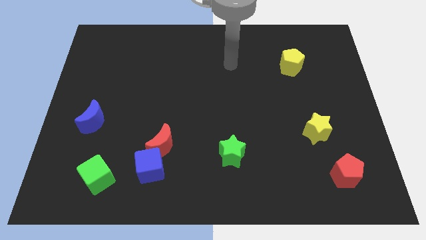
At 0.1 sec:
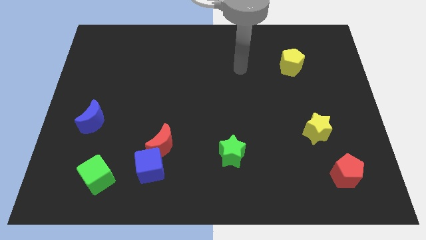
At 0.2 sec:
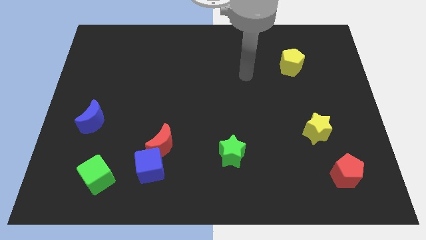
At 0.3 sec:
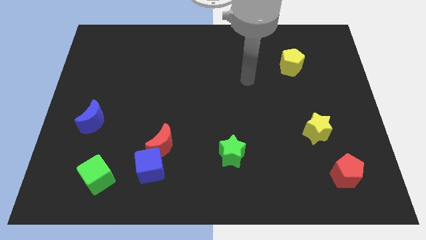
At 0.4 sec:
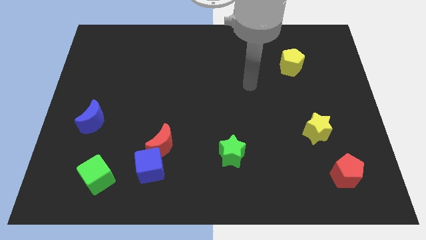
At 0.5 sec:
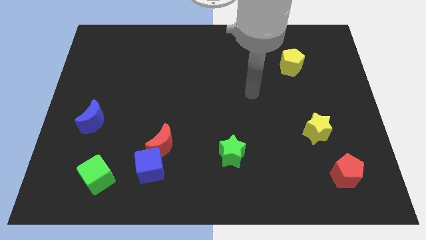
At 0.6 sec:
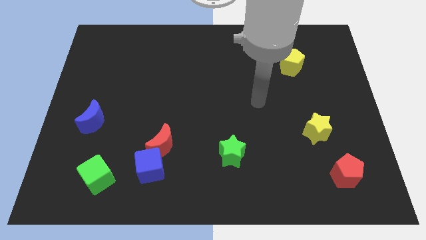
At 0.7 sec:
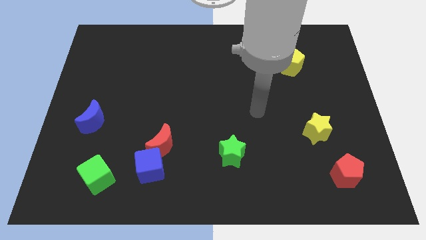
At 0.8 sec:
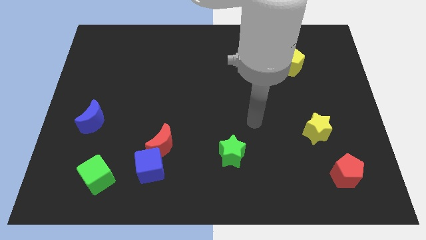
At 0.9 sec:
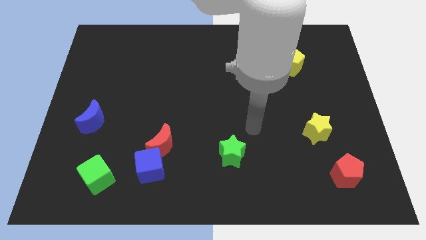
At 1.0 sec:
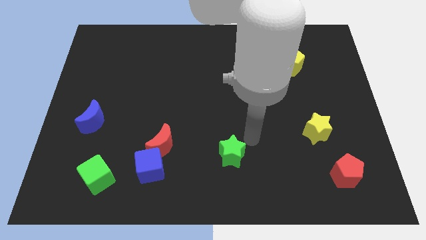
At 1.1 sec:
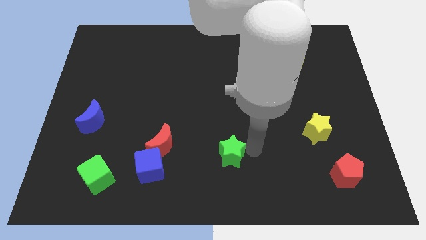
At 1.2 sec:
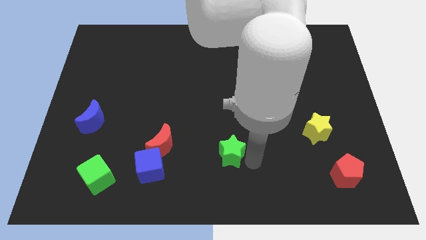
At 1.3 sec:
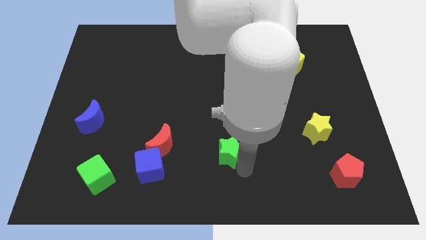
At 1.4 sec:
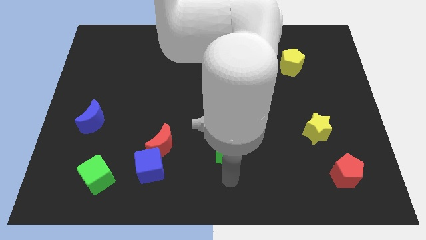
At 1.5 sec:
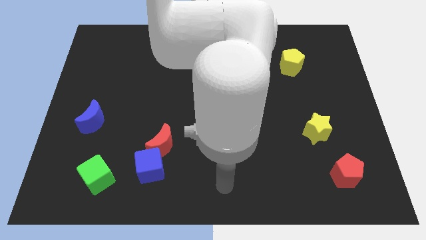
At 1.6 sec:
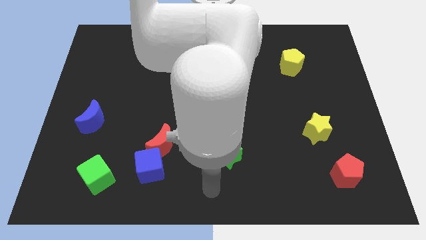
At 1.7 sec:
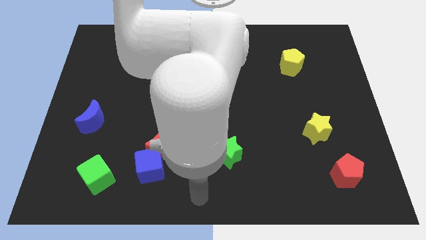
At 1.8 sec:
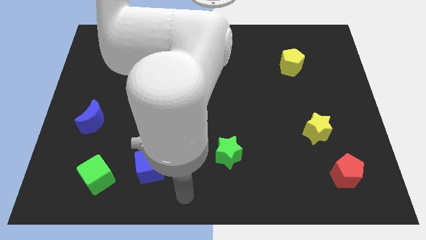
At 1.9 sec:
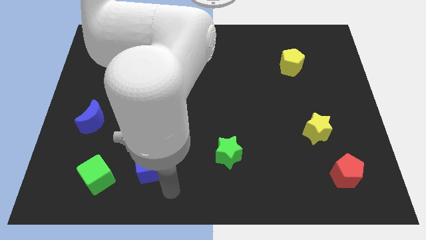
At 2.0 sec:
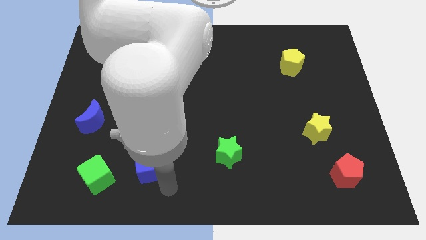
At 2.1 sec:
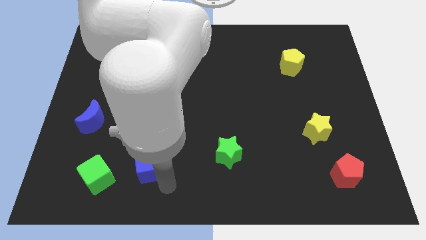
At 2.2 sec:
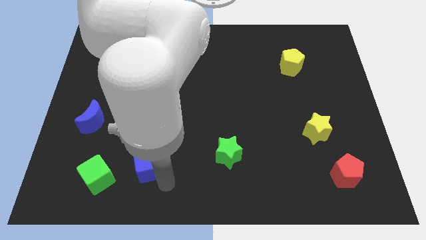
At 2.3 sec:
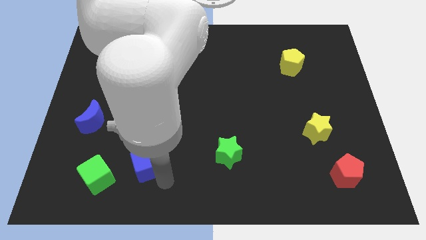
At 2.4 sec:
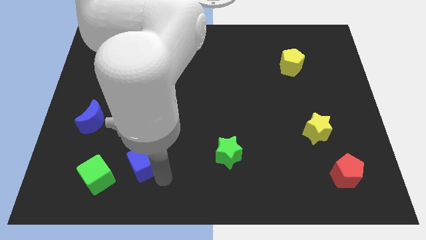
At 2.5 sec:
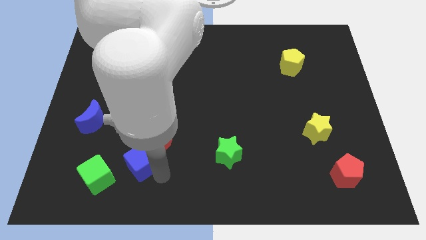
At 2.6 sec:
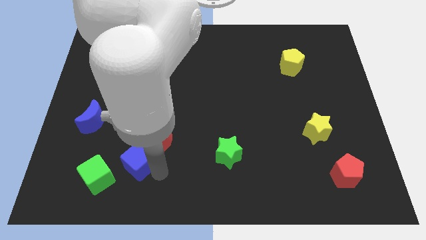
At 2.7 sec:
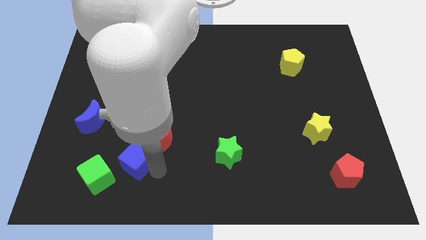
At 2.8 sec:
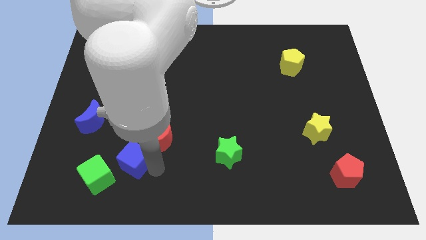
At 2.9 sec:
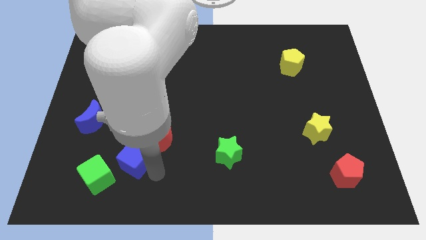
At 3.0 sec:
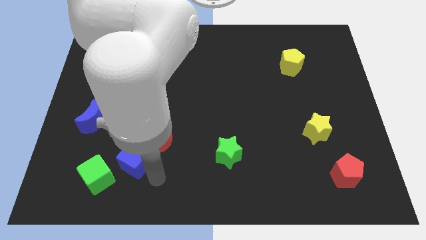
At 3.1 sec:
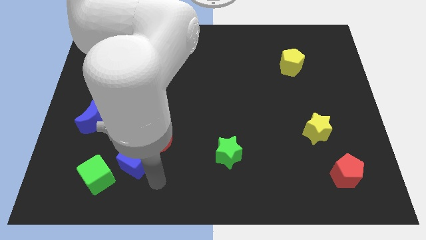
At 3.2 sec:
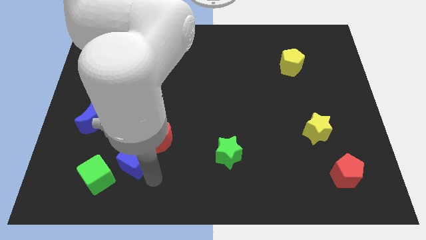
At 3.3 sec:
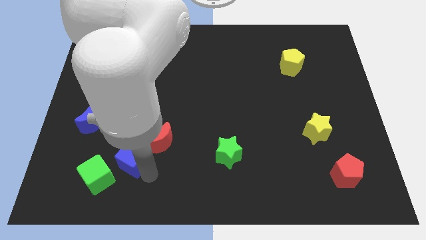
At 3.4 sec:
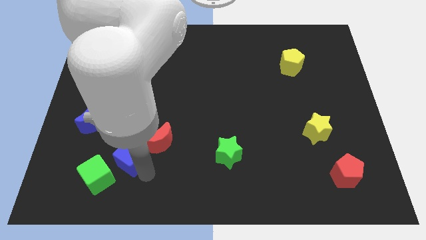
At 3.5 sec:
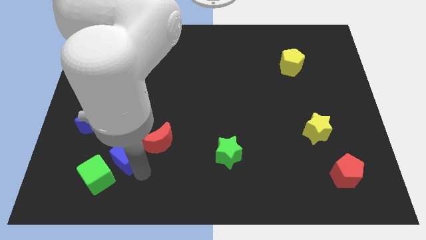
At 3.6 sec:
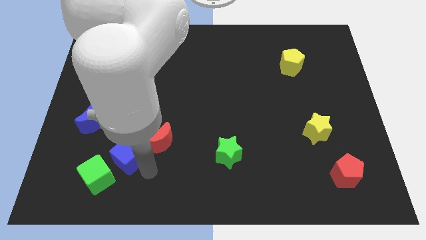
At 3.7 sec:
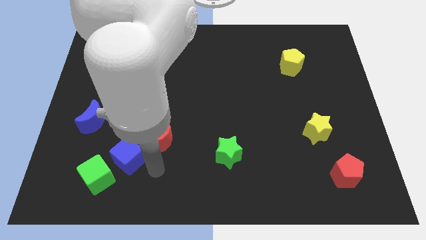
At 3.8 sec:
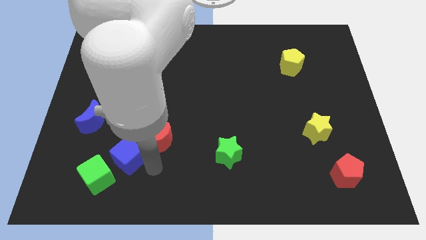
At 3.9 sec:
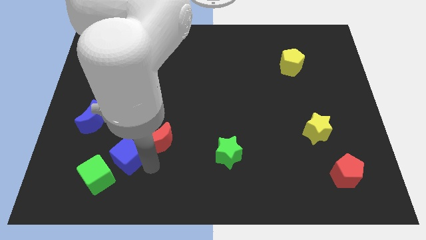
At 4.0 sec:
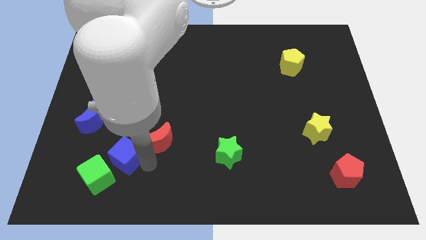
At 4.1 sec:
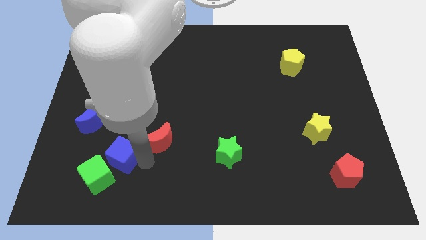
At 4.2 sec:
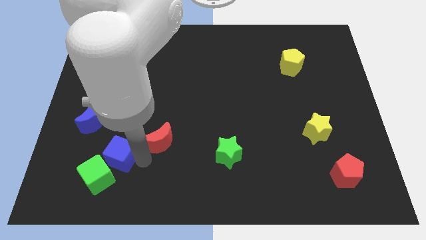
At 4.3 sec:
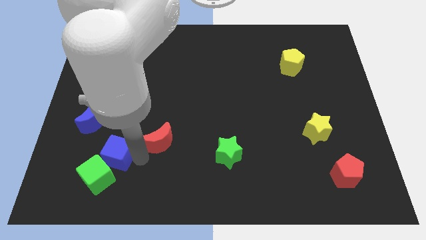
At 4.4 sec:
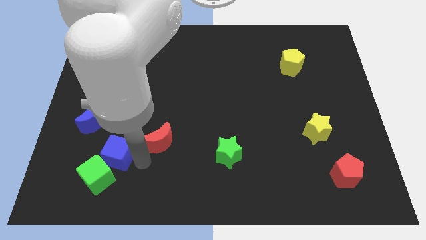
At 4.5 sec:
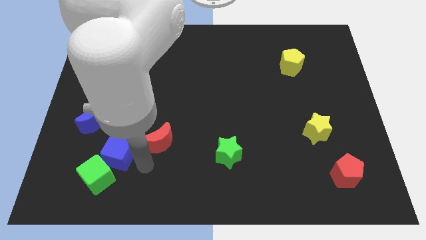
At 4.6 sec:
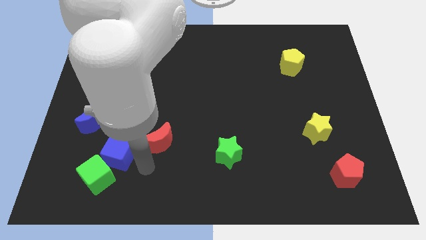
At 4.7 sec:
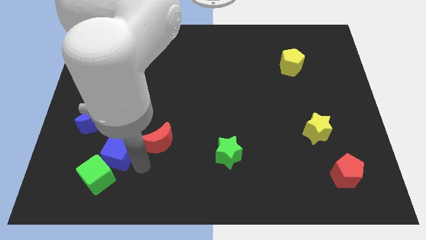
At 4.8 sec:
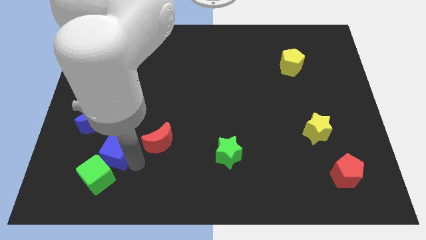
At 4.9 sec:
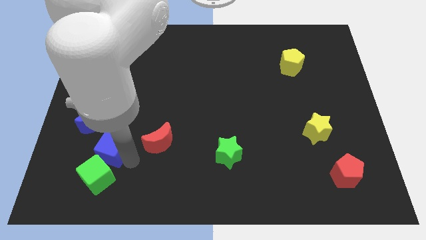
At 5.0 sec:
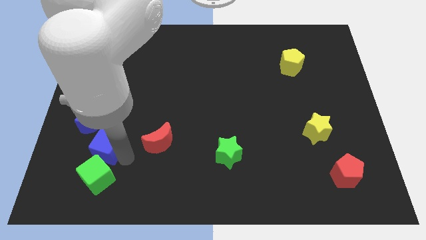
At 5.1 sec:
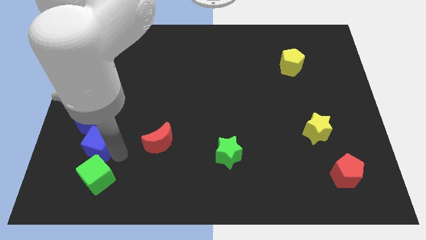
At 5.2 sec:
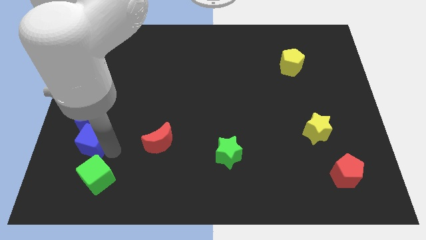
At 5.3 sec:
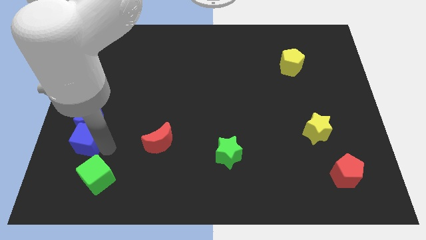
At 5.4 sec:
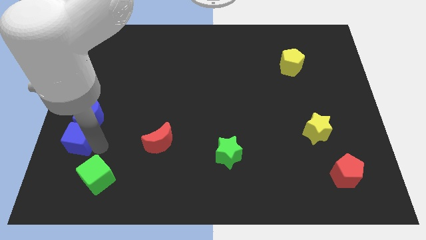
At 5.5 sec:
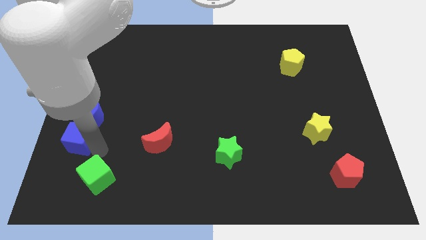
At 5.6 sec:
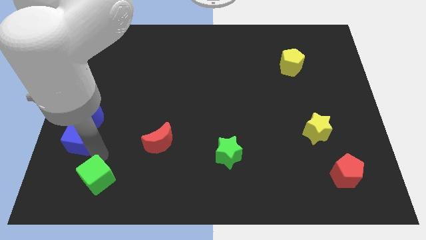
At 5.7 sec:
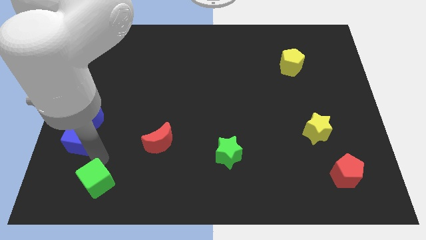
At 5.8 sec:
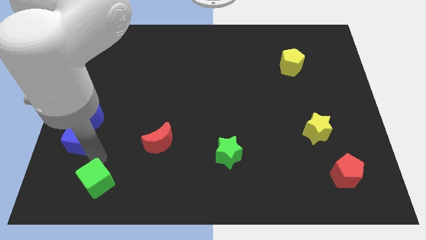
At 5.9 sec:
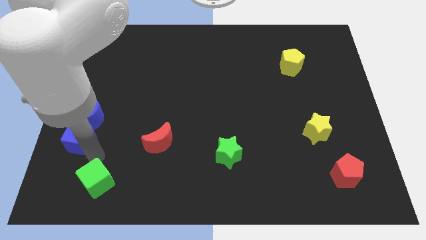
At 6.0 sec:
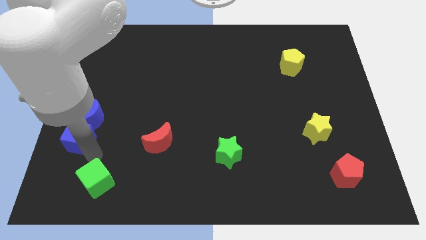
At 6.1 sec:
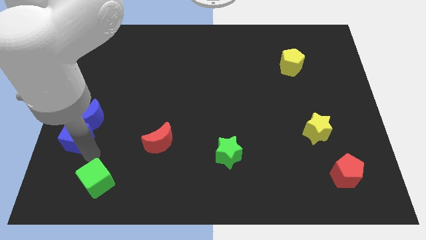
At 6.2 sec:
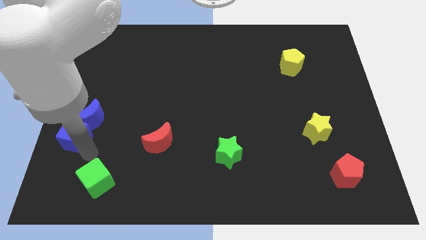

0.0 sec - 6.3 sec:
slide the blue cube to the left side of the board
